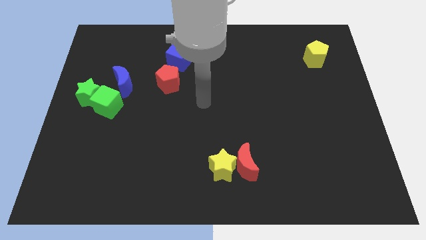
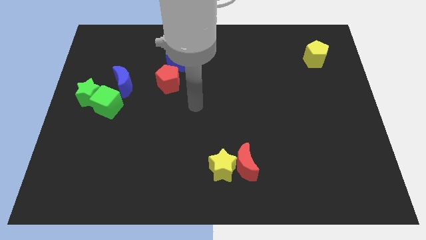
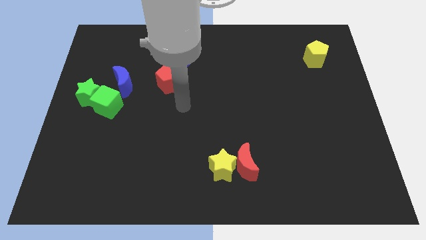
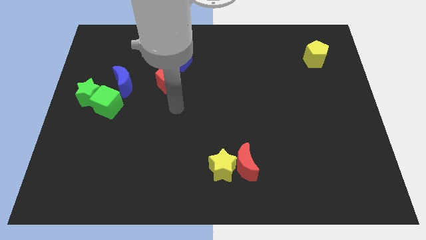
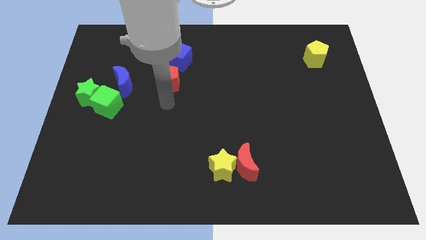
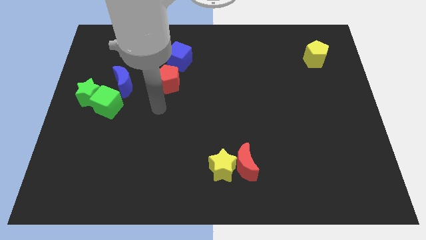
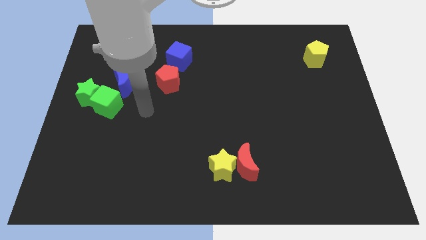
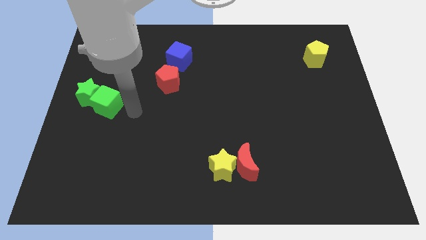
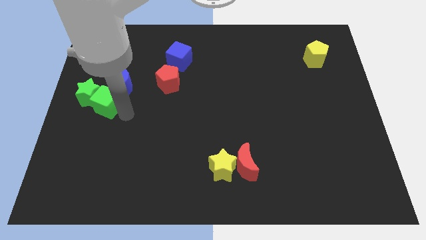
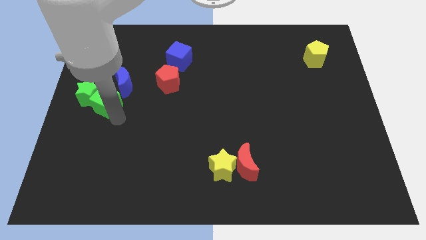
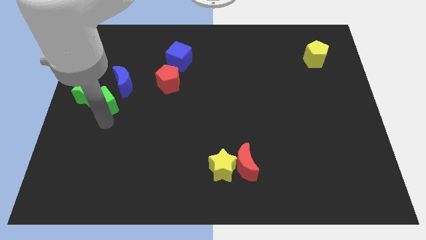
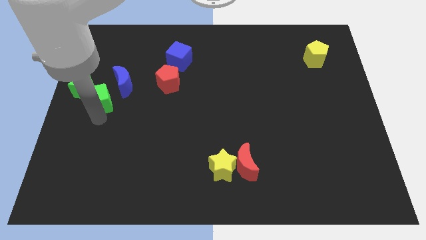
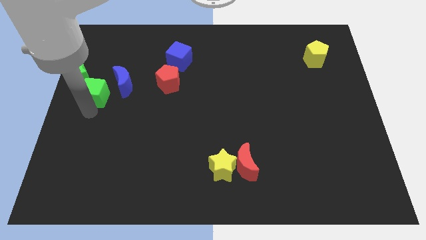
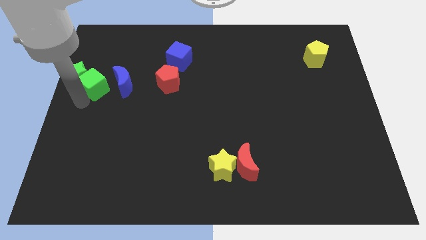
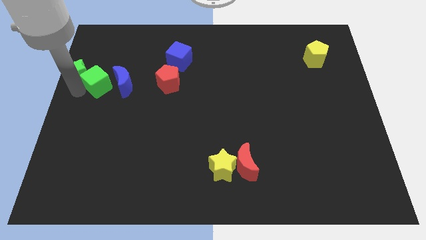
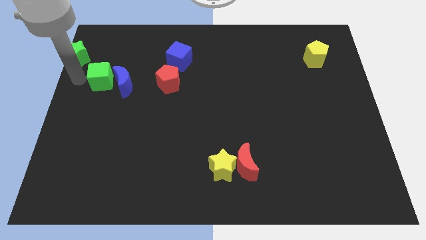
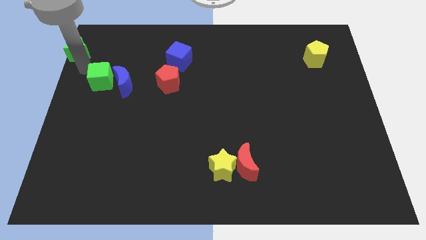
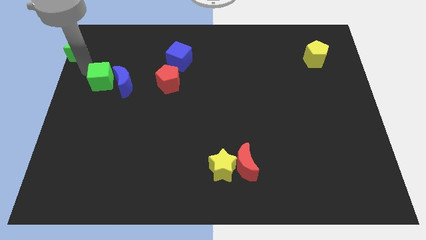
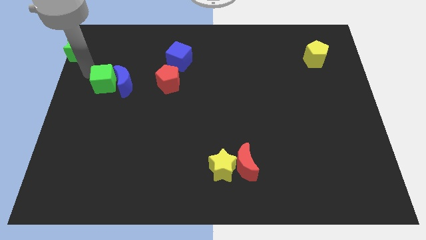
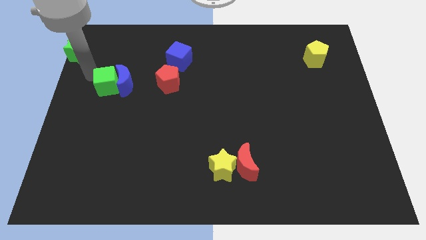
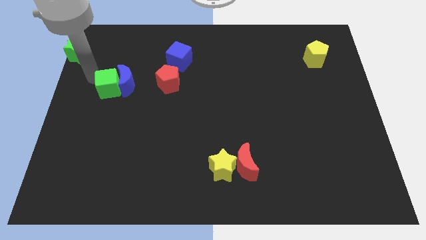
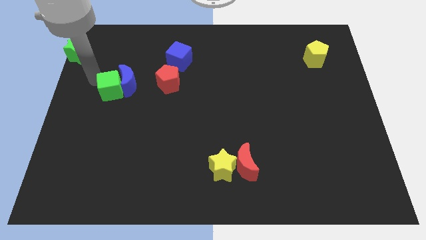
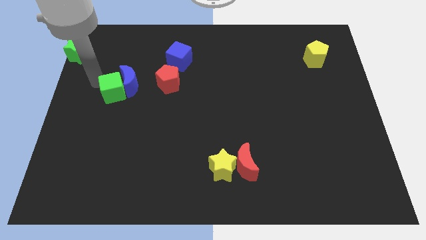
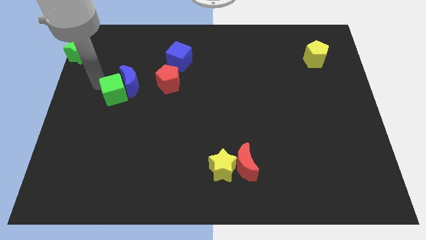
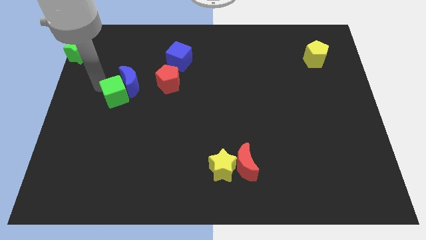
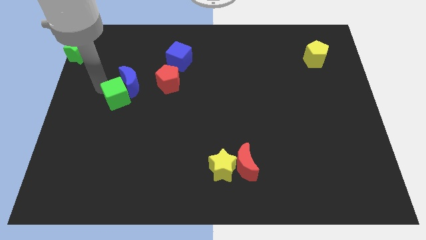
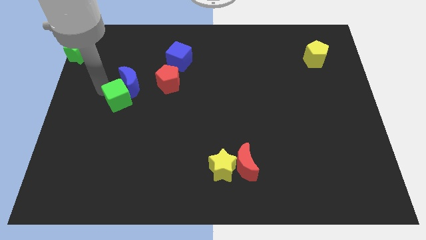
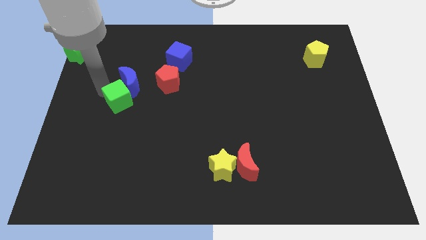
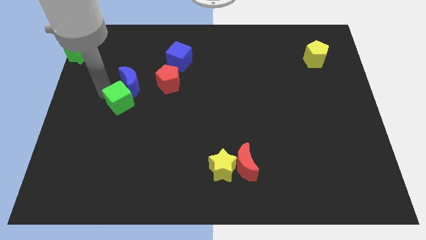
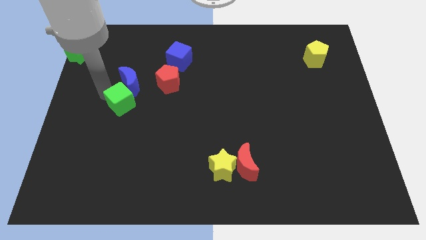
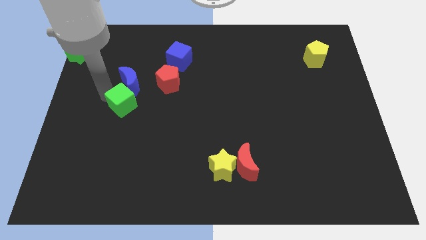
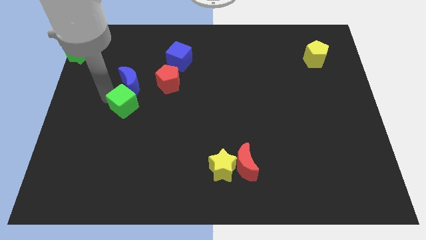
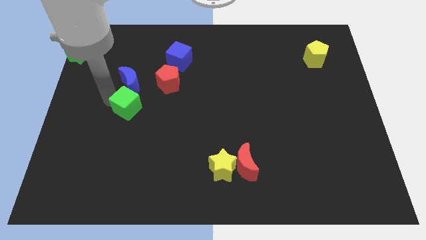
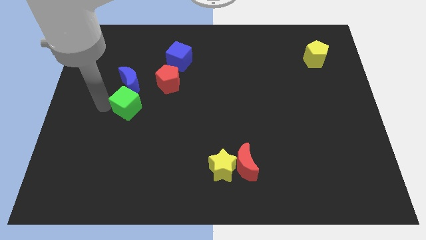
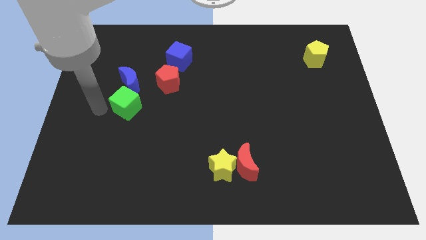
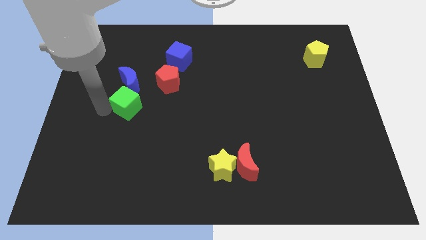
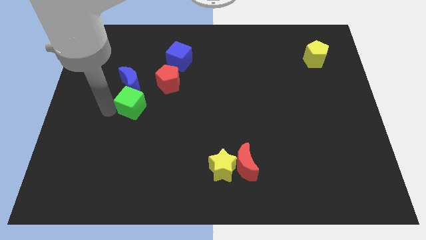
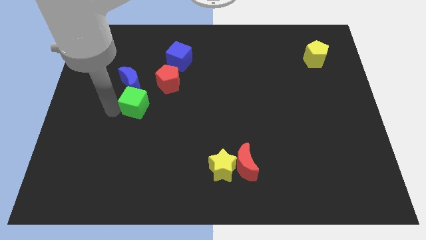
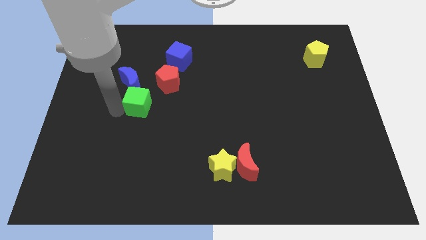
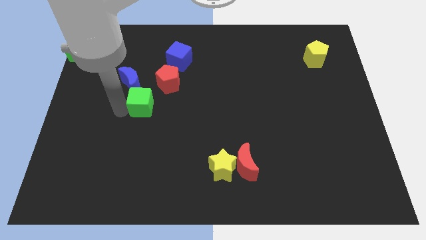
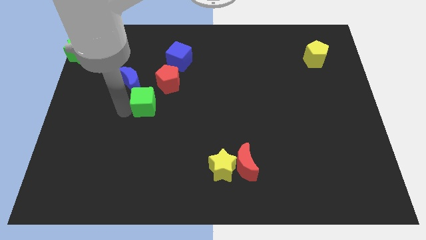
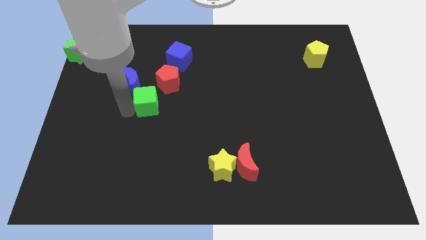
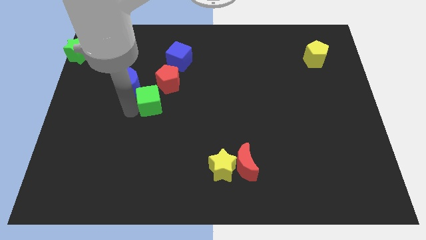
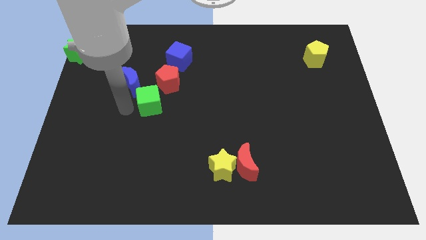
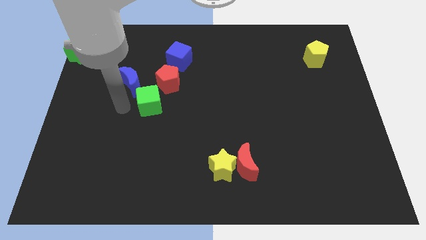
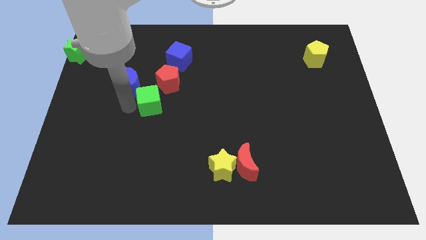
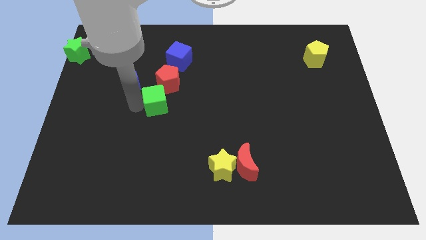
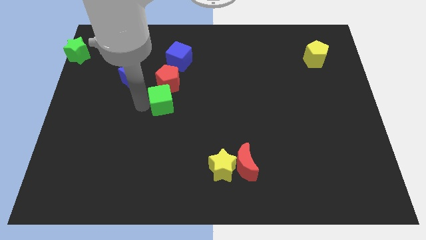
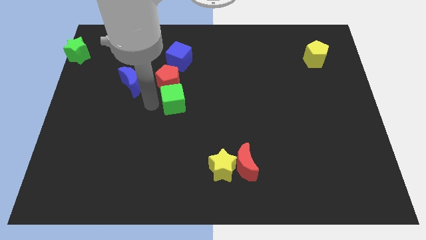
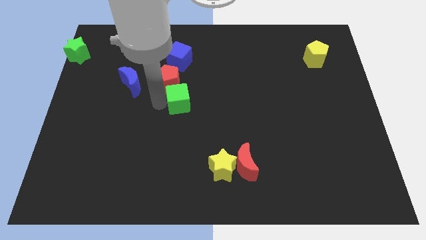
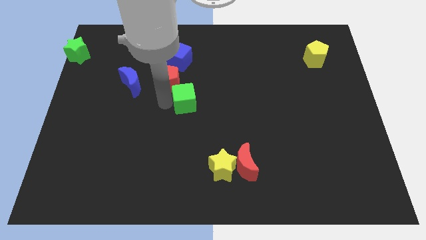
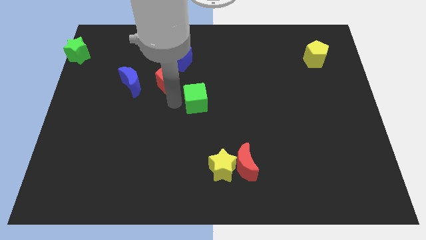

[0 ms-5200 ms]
push the green cube right

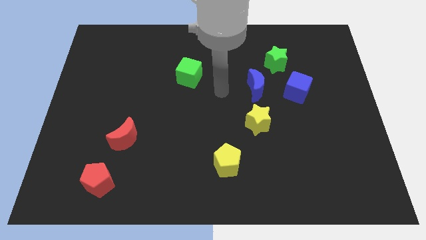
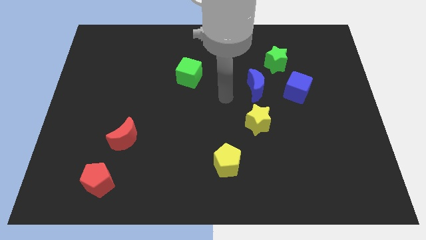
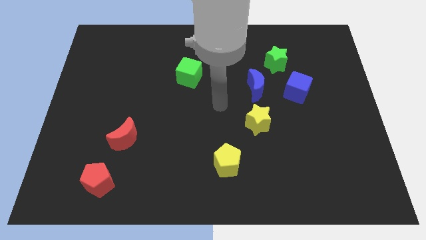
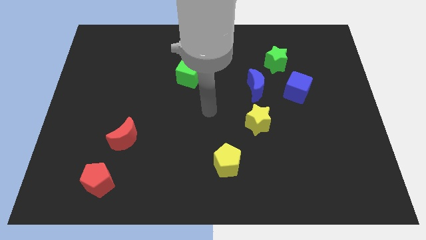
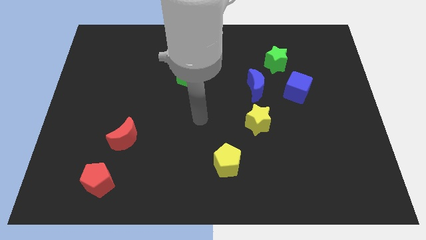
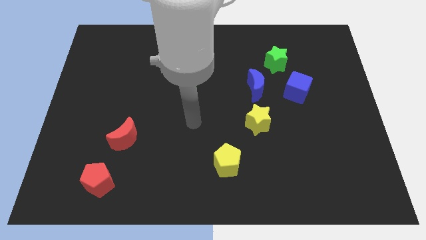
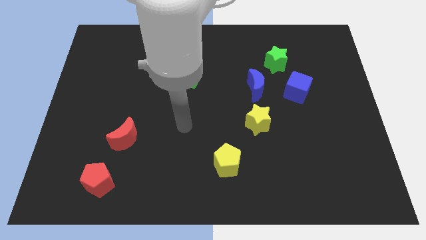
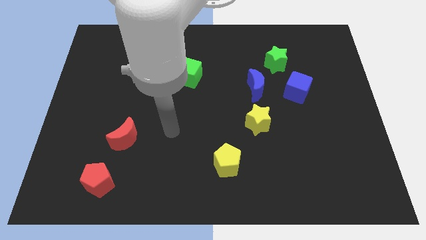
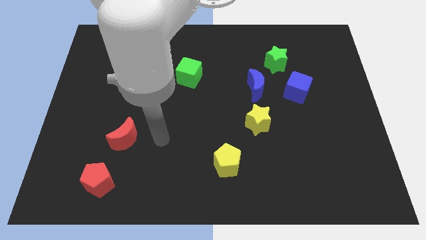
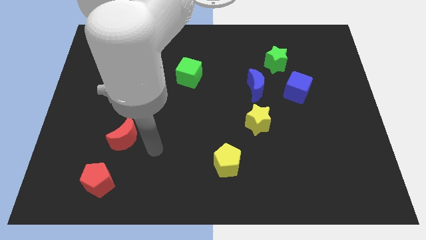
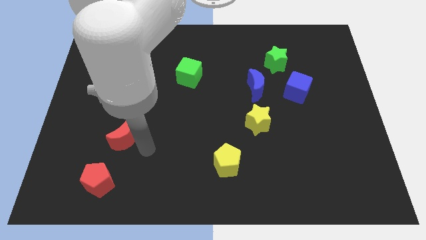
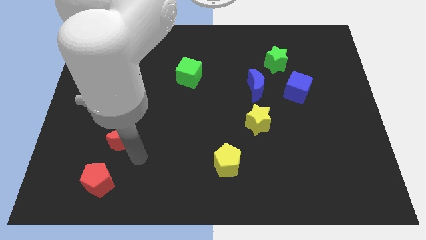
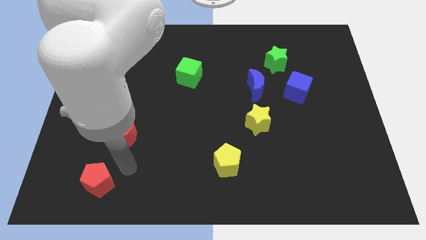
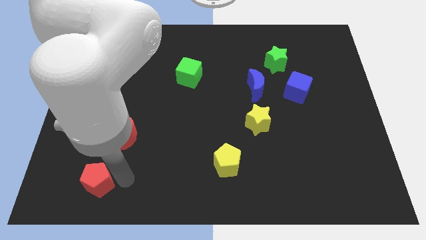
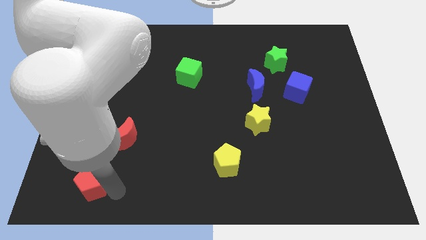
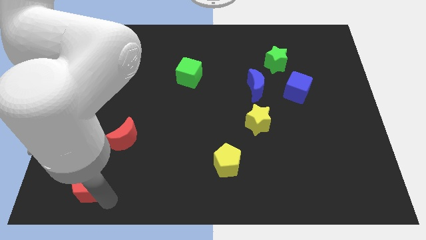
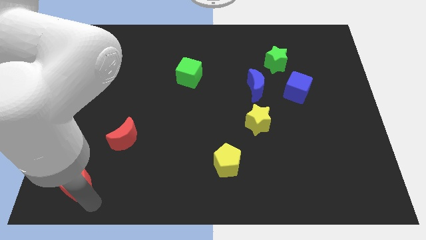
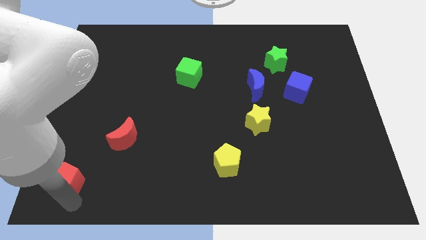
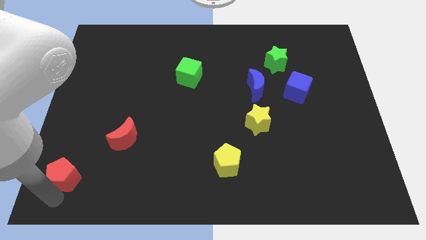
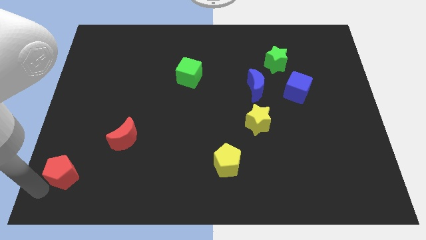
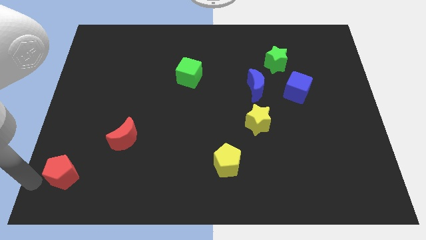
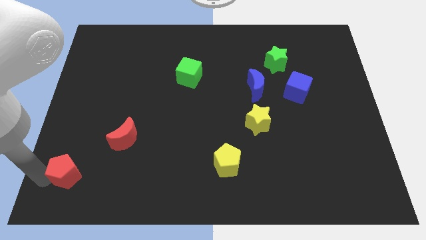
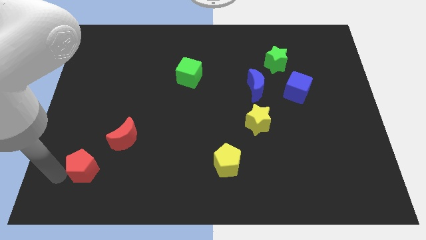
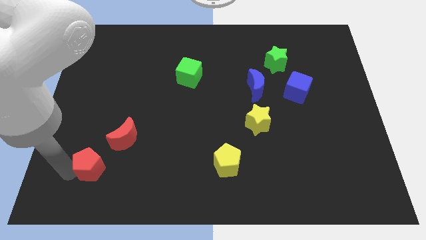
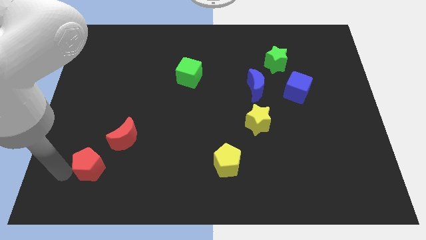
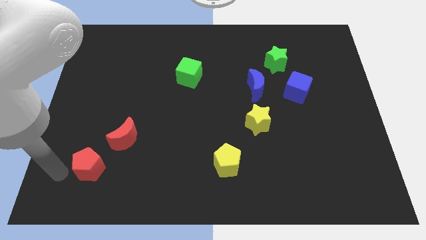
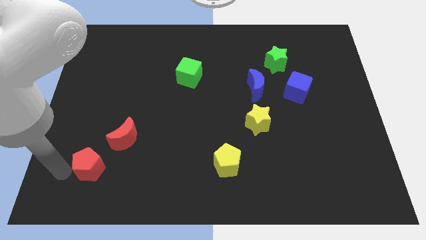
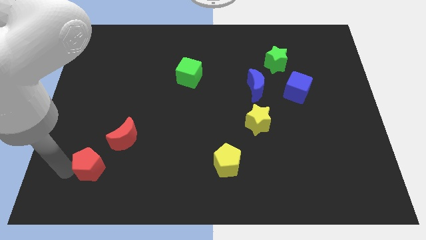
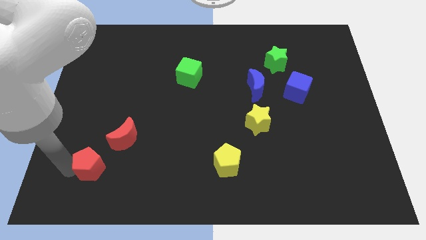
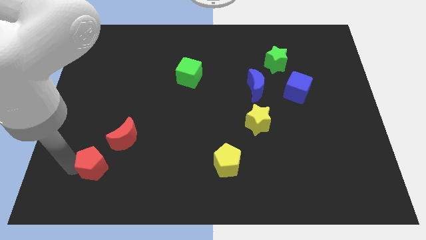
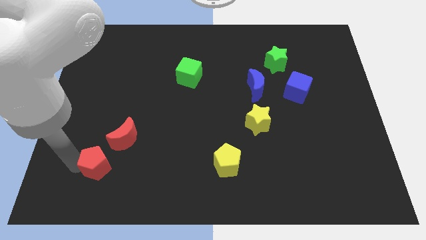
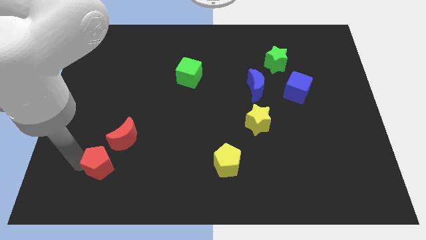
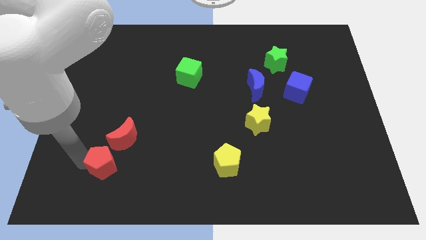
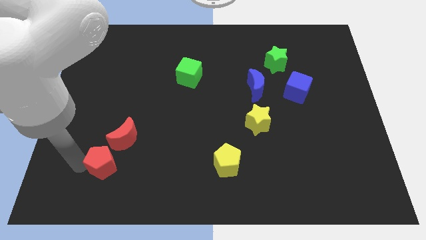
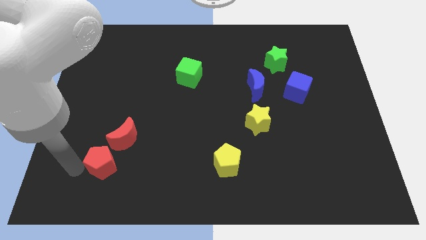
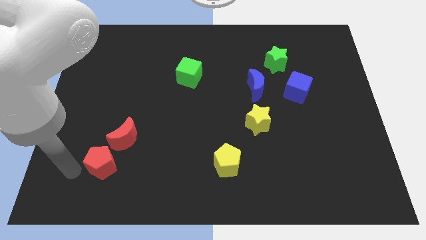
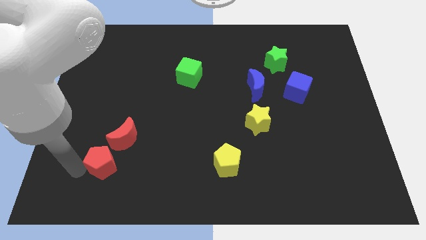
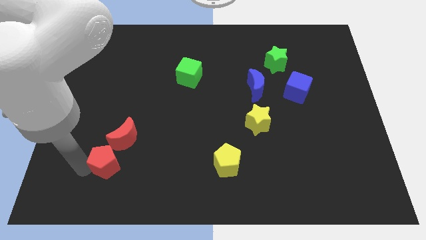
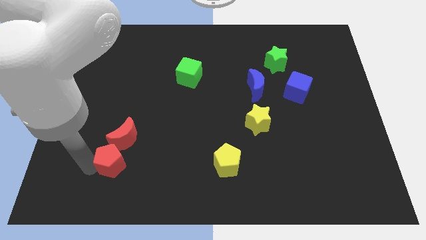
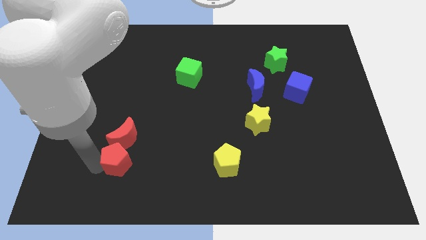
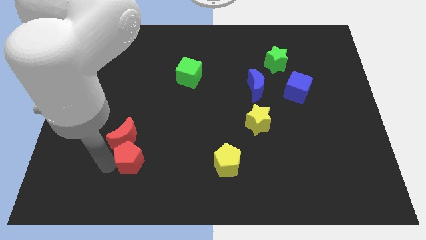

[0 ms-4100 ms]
slide the red pentagon a bit upwards and to the right
